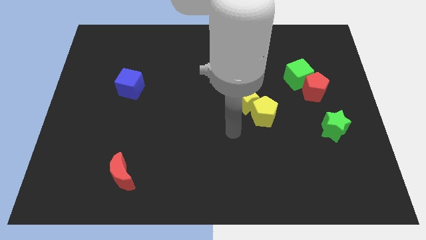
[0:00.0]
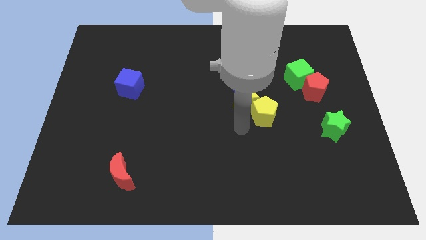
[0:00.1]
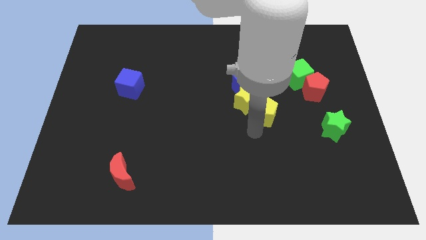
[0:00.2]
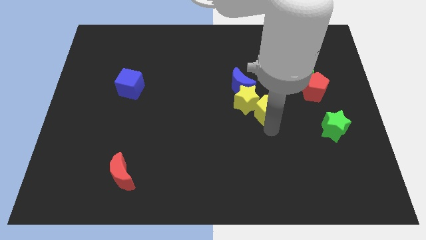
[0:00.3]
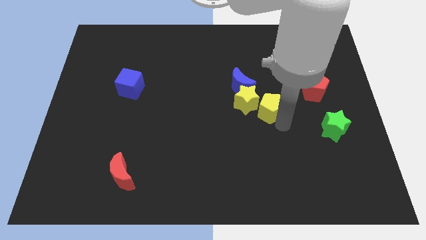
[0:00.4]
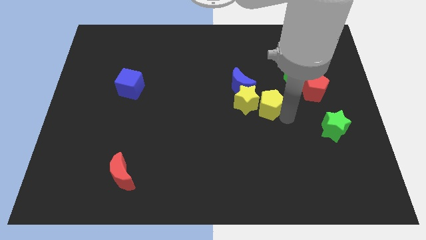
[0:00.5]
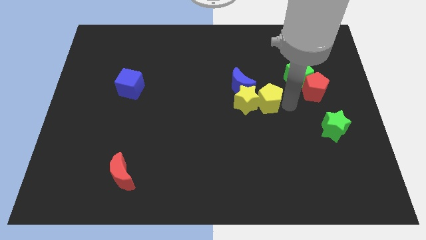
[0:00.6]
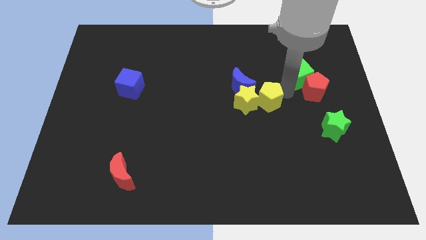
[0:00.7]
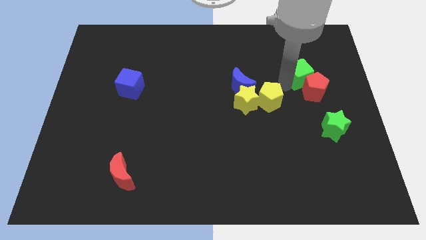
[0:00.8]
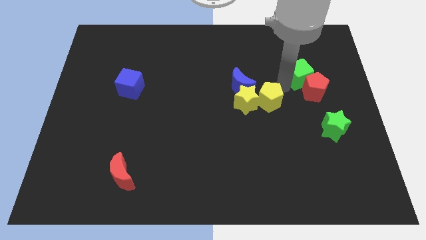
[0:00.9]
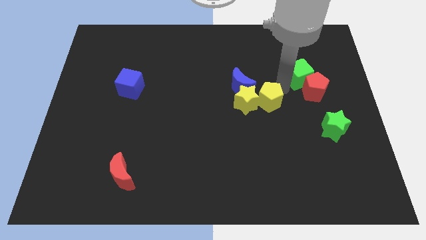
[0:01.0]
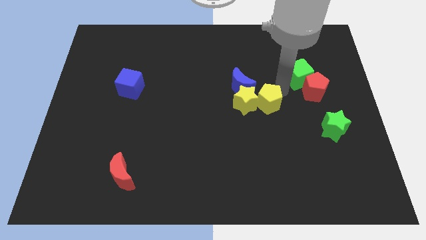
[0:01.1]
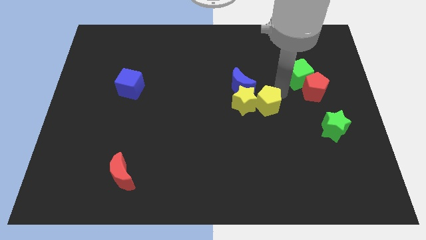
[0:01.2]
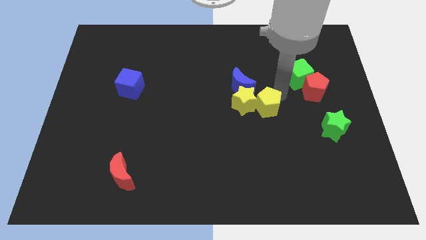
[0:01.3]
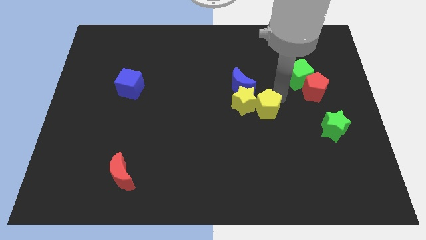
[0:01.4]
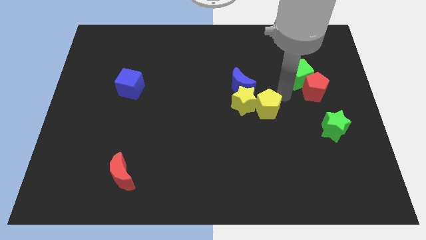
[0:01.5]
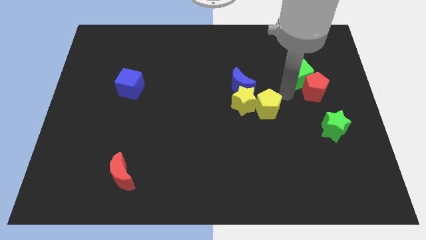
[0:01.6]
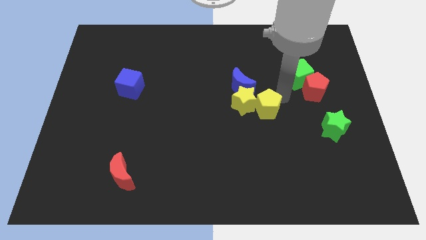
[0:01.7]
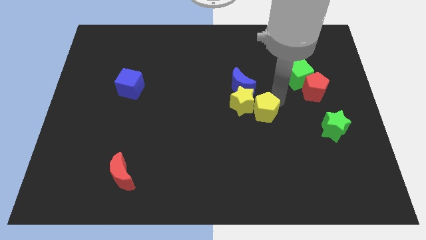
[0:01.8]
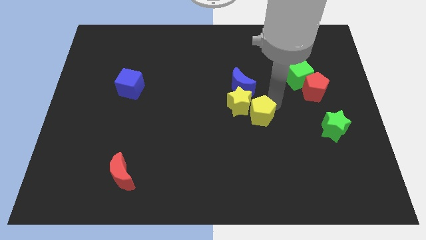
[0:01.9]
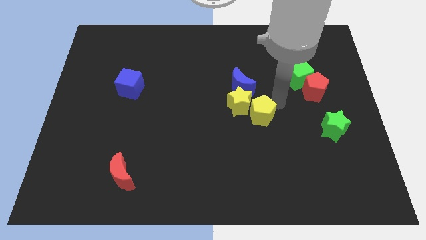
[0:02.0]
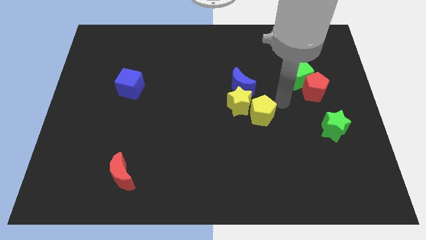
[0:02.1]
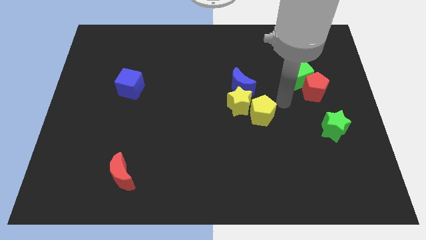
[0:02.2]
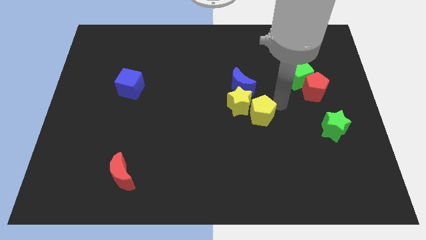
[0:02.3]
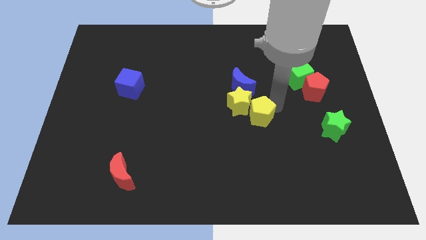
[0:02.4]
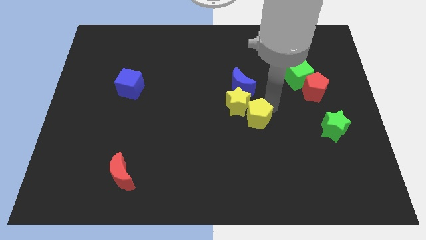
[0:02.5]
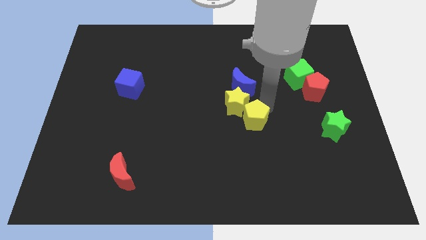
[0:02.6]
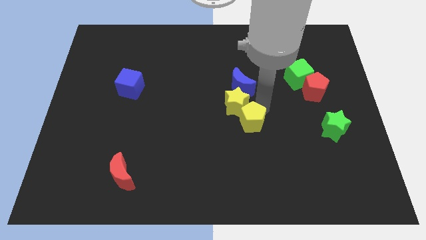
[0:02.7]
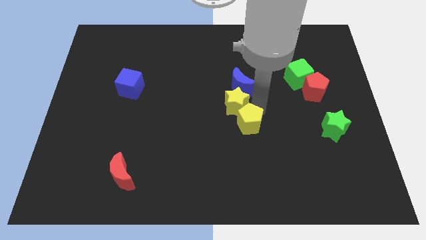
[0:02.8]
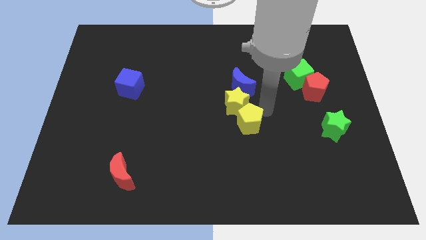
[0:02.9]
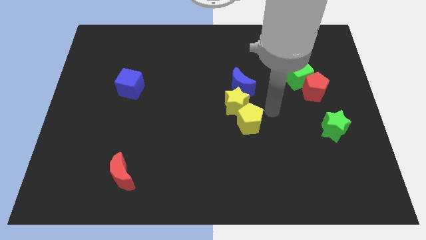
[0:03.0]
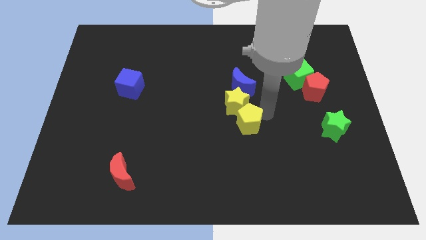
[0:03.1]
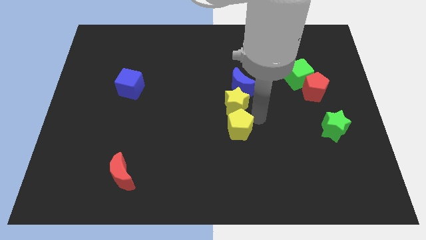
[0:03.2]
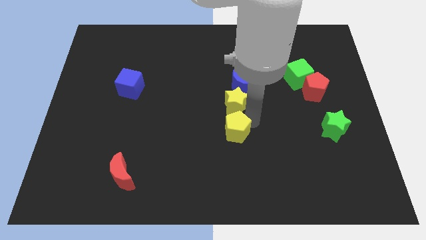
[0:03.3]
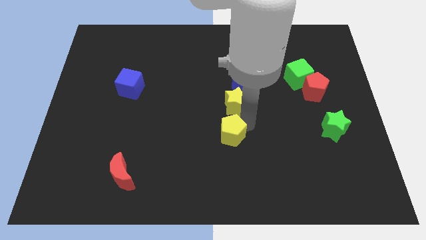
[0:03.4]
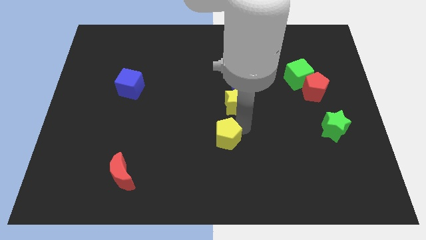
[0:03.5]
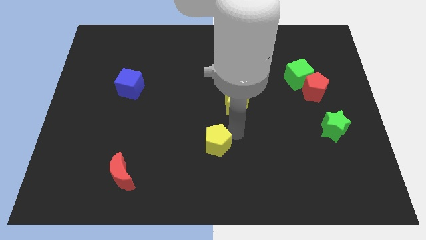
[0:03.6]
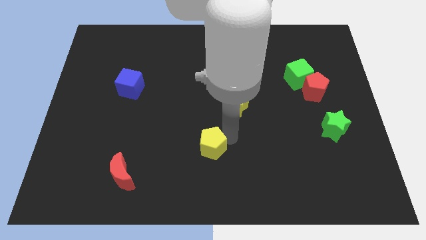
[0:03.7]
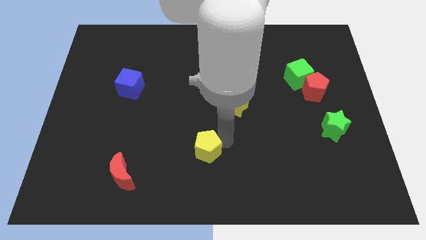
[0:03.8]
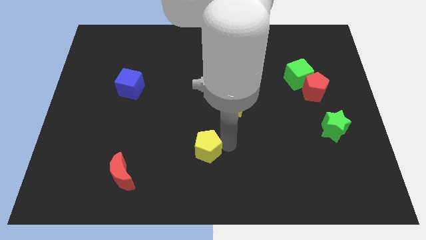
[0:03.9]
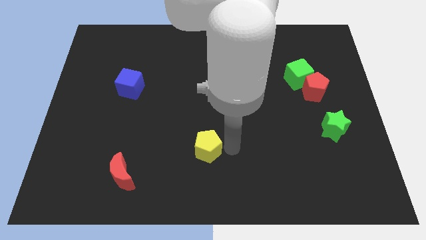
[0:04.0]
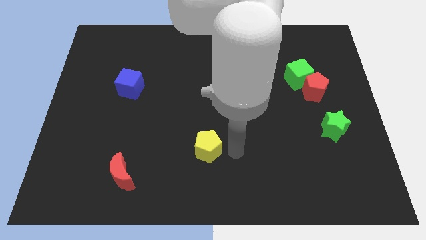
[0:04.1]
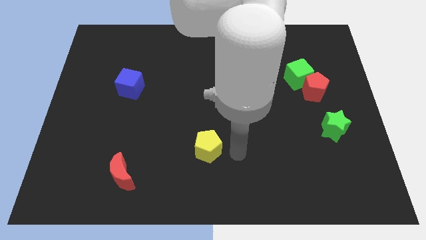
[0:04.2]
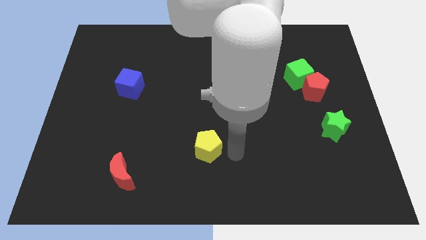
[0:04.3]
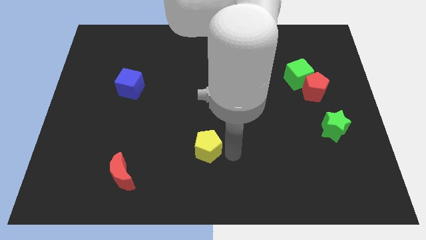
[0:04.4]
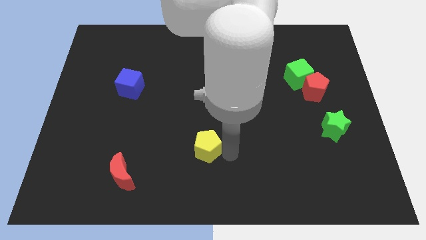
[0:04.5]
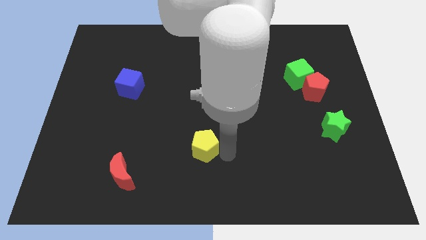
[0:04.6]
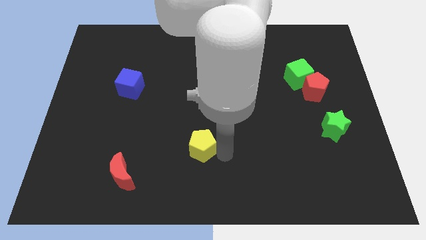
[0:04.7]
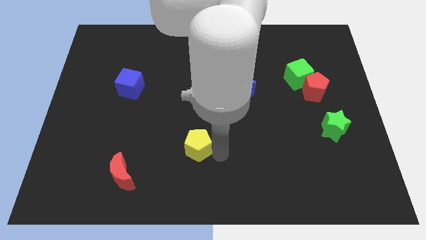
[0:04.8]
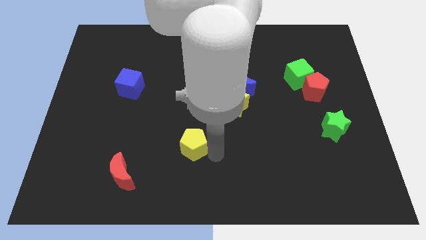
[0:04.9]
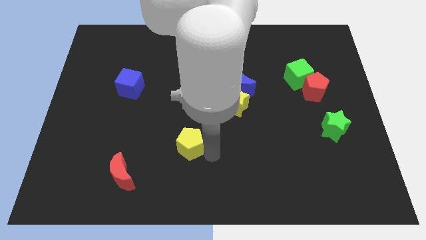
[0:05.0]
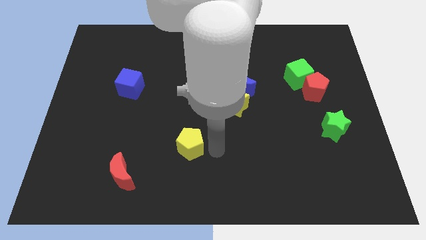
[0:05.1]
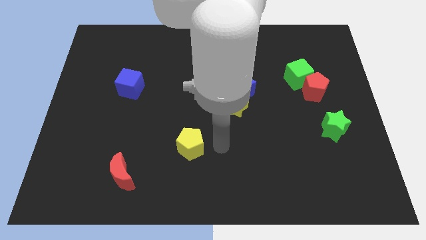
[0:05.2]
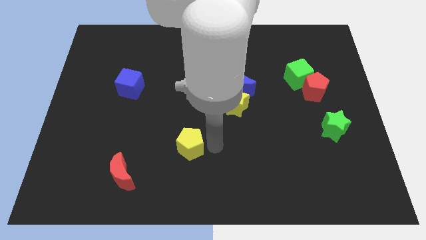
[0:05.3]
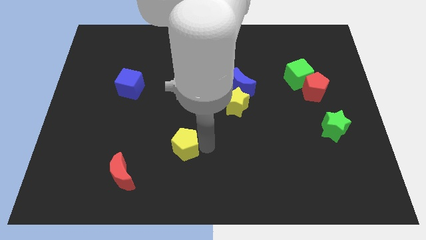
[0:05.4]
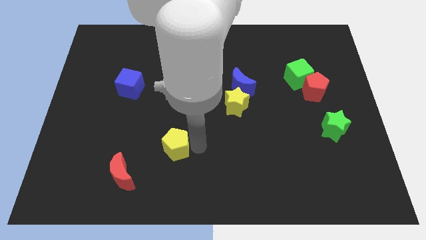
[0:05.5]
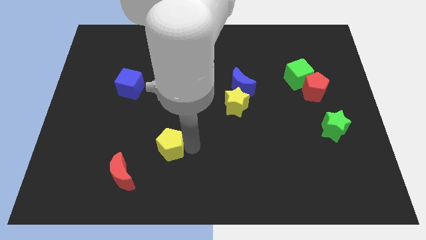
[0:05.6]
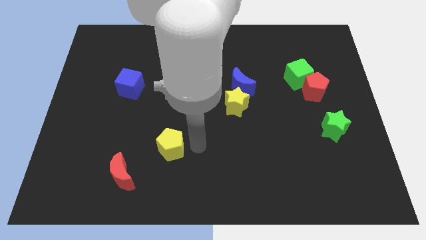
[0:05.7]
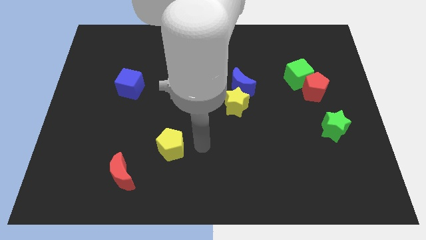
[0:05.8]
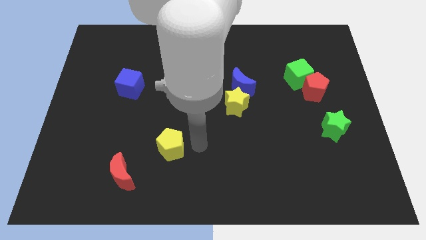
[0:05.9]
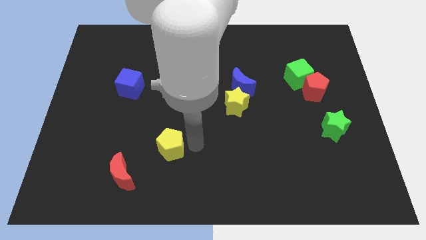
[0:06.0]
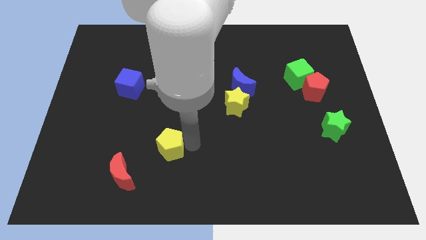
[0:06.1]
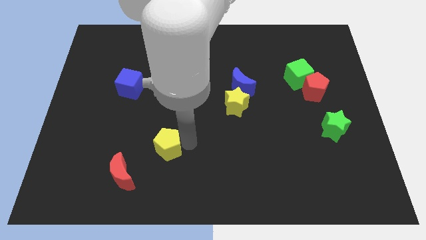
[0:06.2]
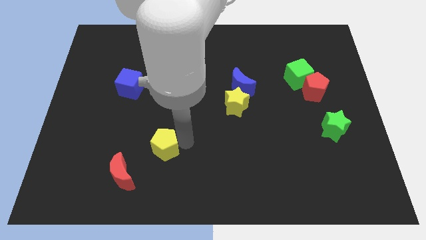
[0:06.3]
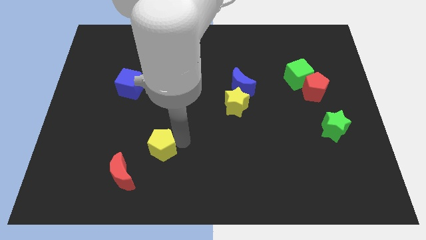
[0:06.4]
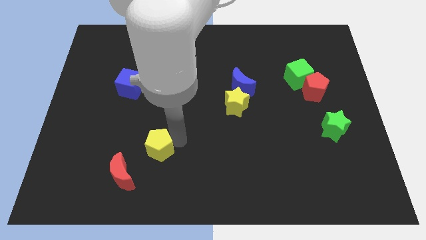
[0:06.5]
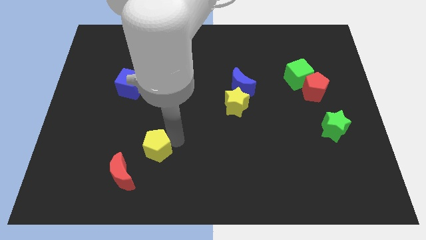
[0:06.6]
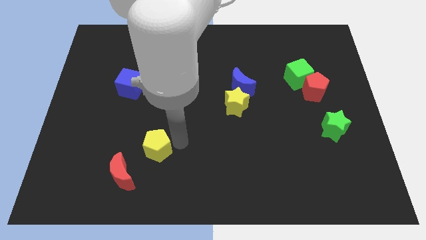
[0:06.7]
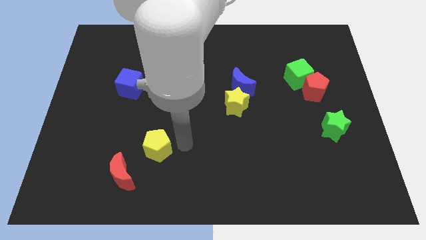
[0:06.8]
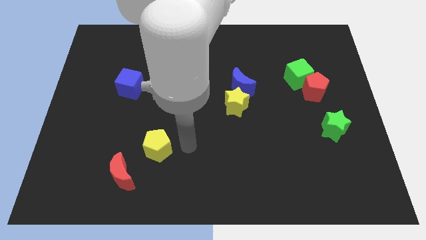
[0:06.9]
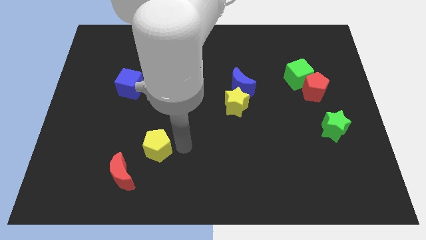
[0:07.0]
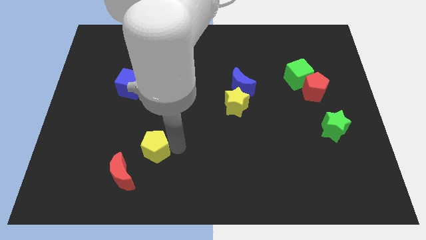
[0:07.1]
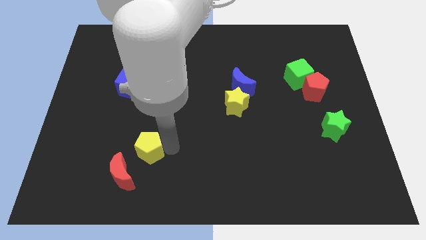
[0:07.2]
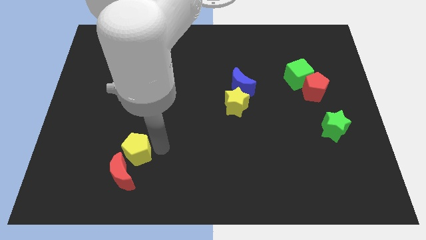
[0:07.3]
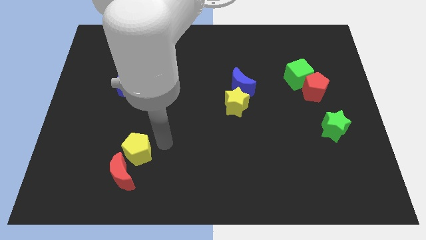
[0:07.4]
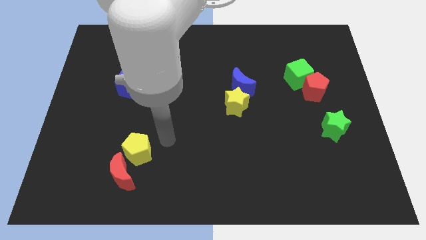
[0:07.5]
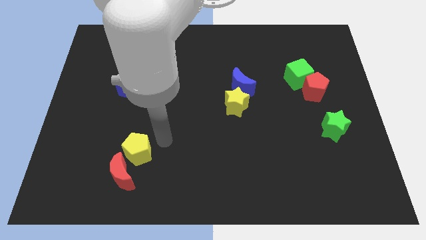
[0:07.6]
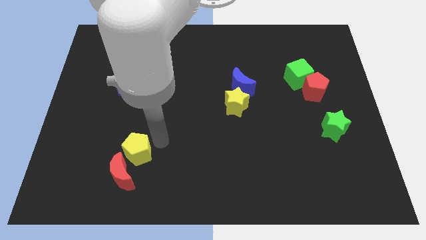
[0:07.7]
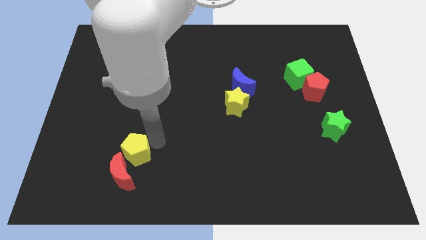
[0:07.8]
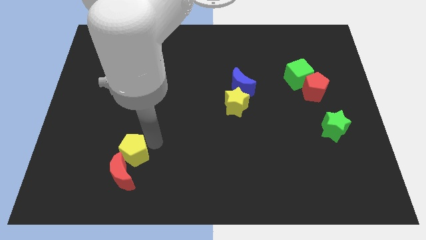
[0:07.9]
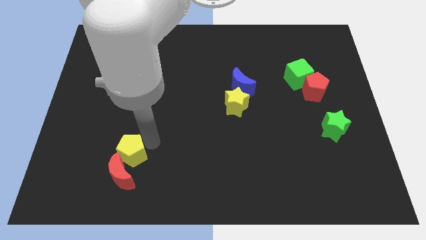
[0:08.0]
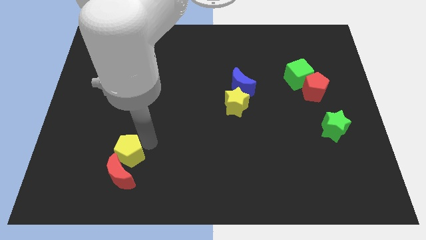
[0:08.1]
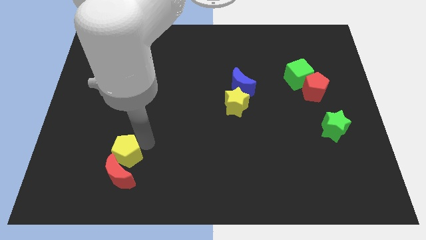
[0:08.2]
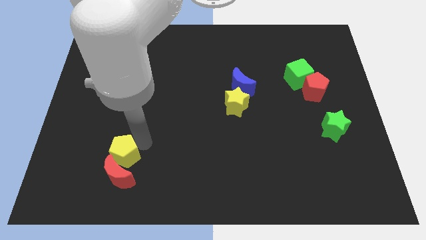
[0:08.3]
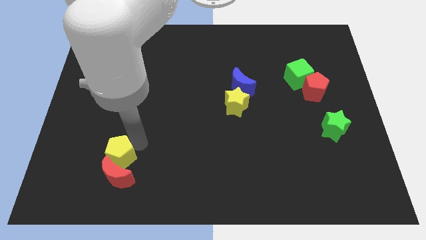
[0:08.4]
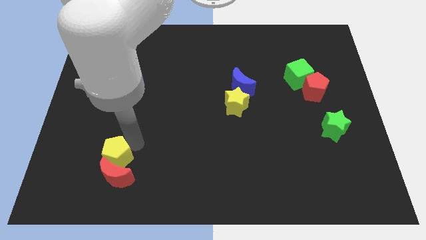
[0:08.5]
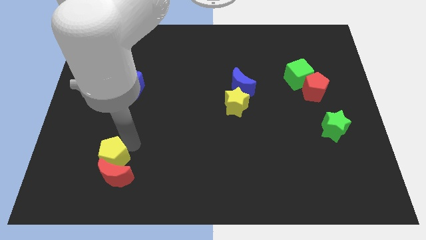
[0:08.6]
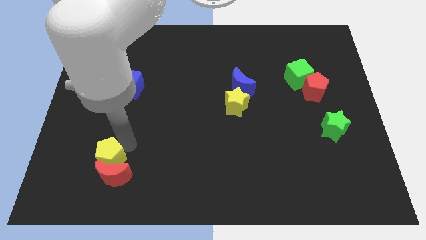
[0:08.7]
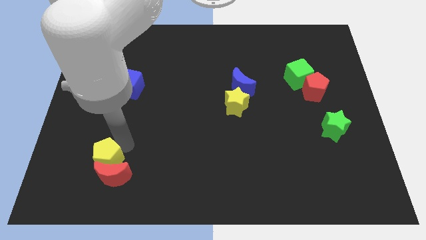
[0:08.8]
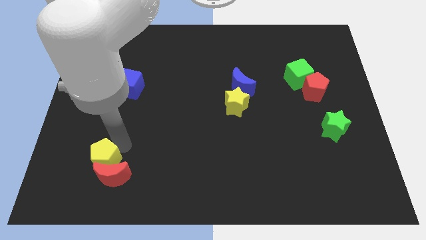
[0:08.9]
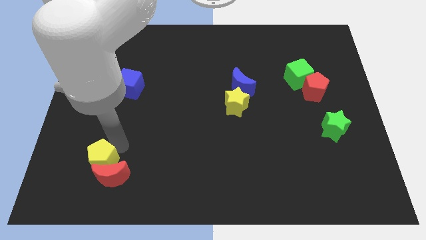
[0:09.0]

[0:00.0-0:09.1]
push the yellow pentagon to the left of the red moon
